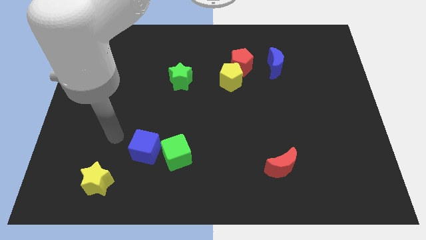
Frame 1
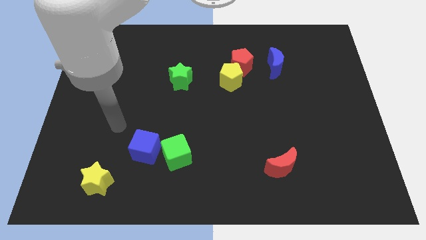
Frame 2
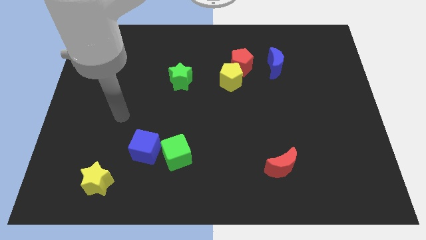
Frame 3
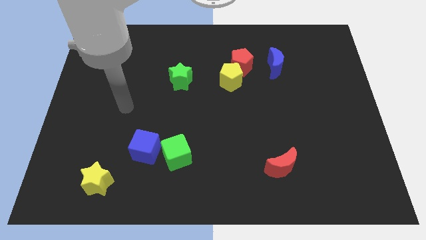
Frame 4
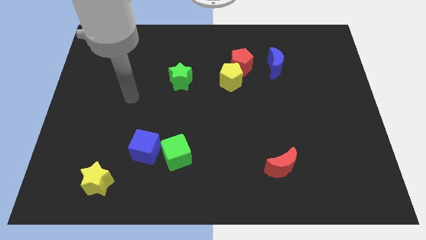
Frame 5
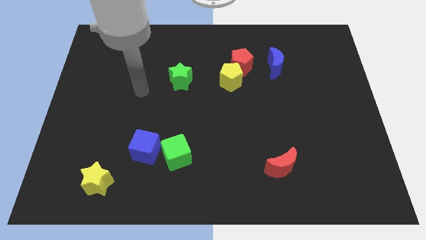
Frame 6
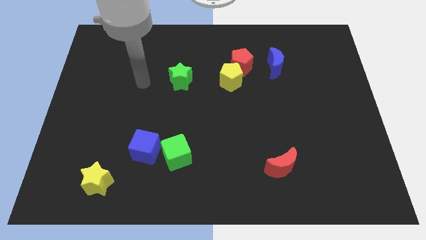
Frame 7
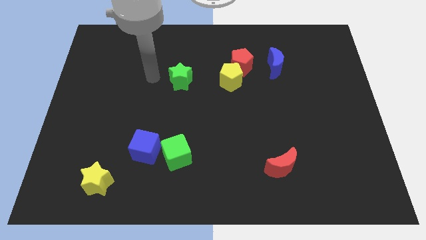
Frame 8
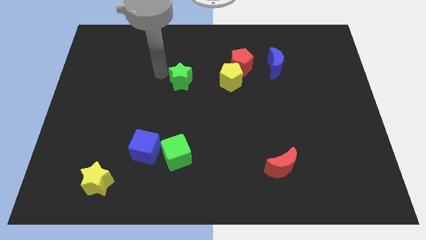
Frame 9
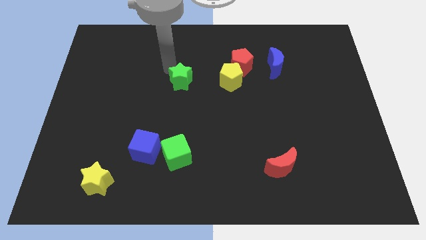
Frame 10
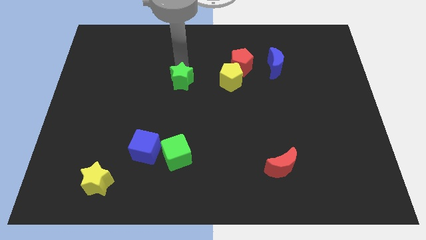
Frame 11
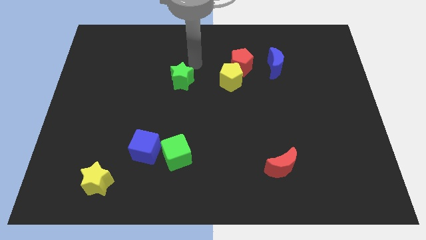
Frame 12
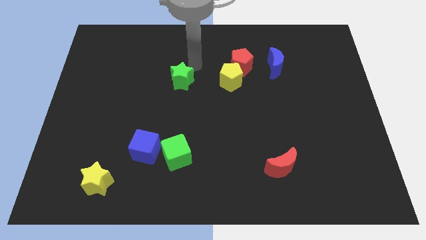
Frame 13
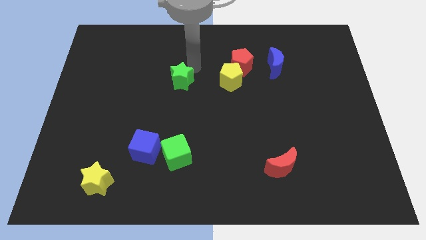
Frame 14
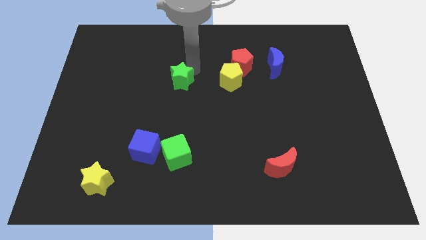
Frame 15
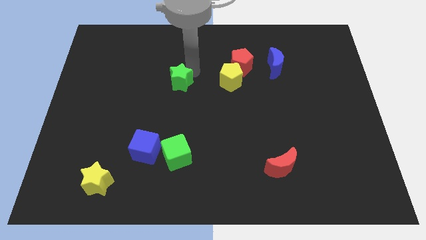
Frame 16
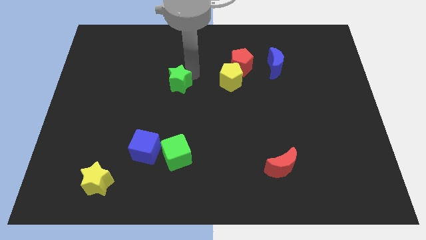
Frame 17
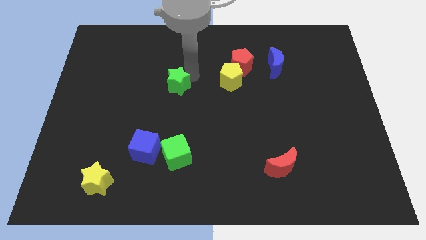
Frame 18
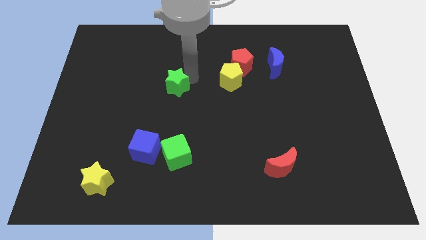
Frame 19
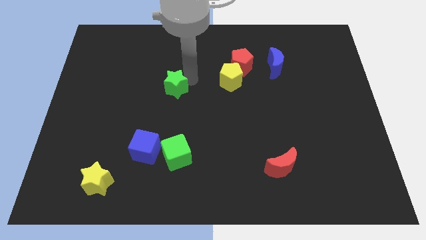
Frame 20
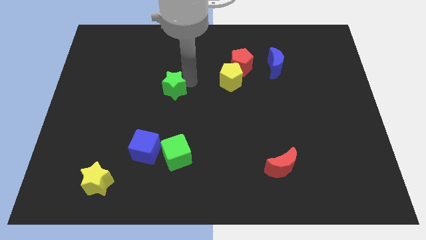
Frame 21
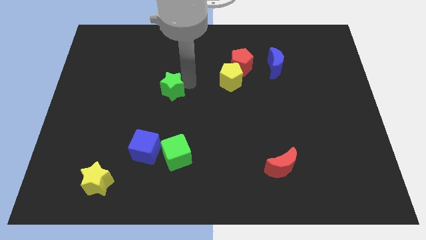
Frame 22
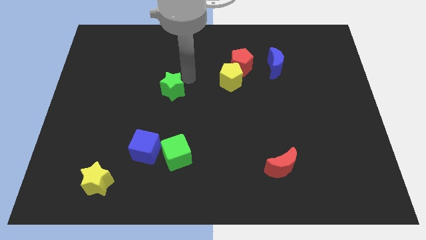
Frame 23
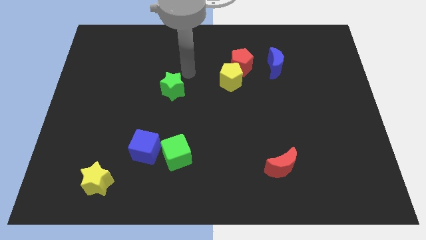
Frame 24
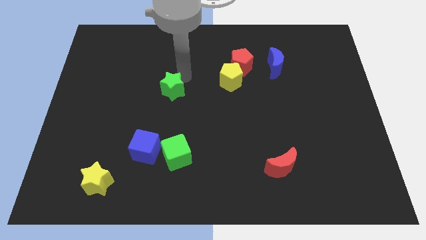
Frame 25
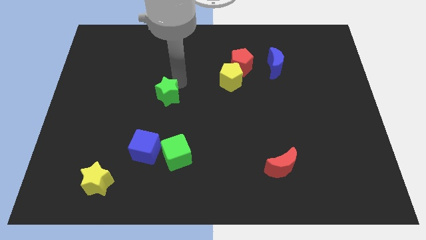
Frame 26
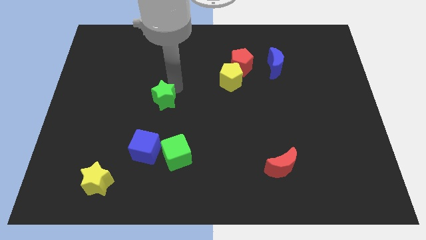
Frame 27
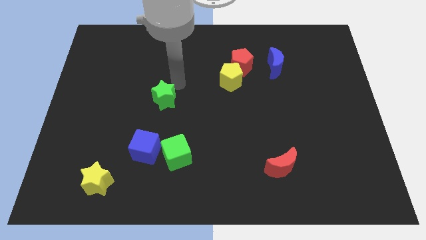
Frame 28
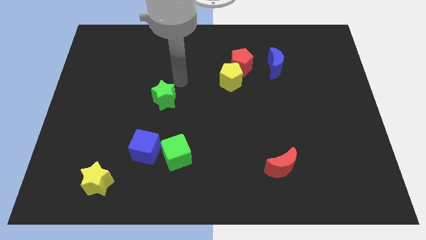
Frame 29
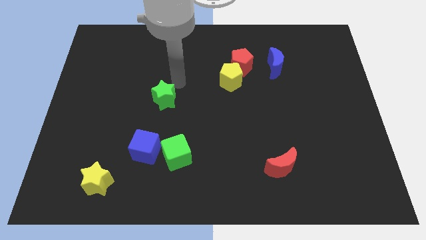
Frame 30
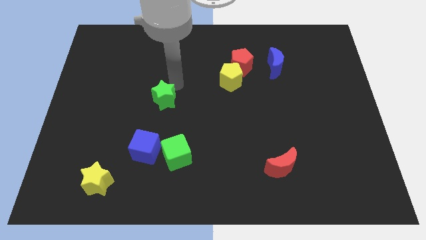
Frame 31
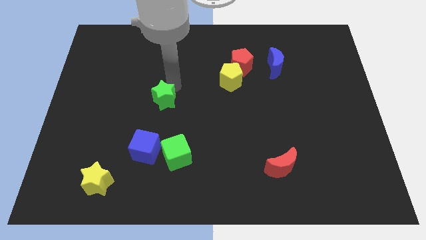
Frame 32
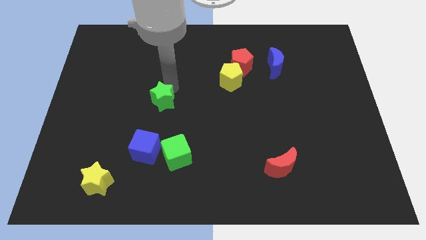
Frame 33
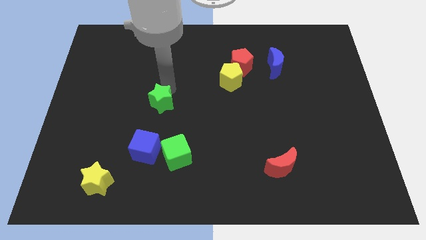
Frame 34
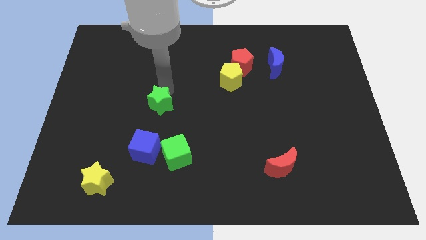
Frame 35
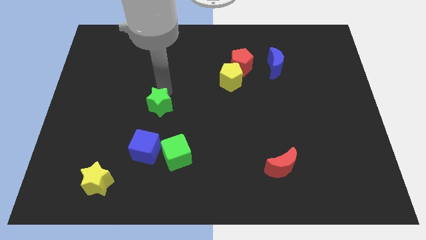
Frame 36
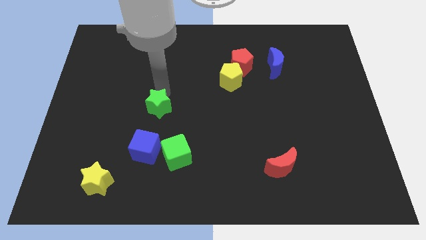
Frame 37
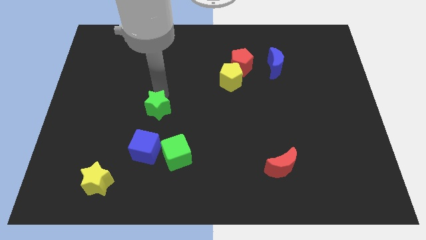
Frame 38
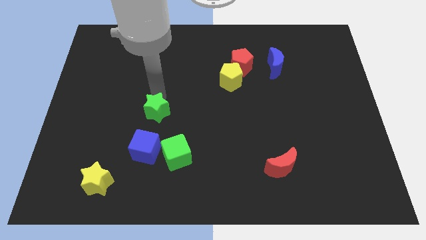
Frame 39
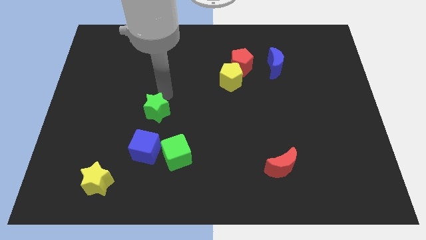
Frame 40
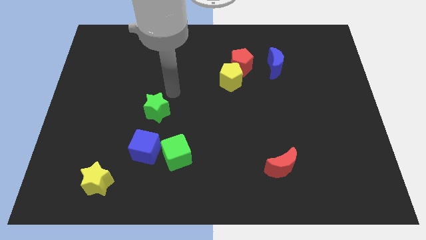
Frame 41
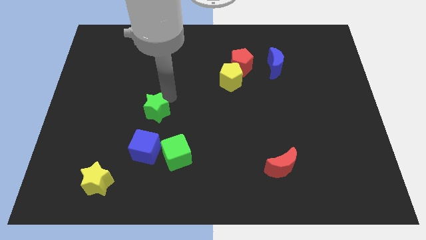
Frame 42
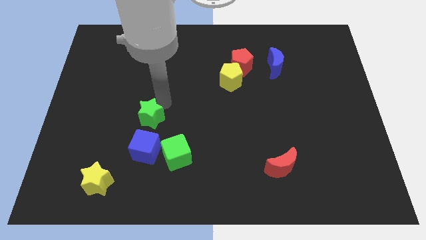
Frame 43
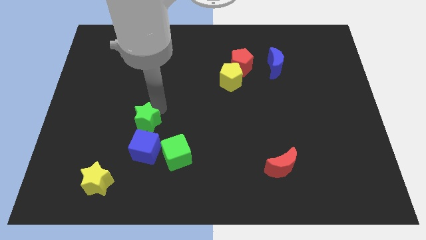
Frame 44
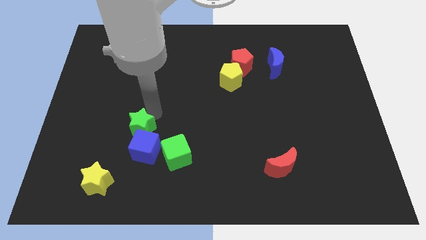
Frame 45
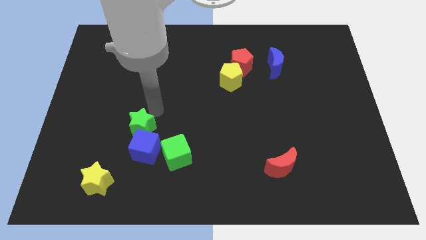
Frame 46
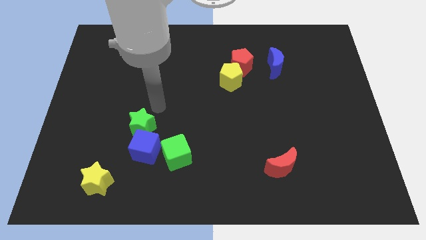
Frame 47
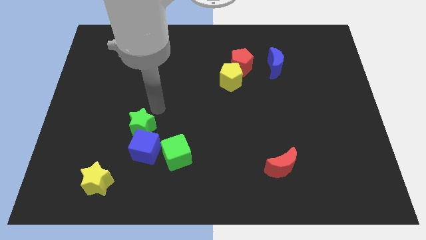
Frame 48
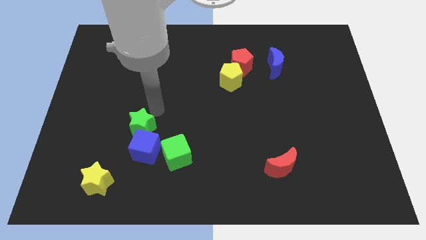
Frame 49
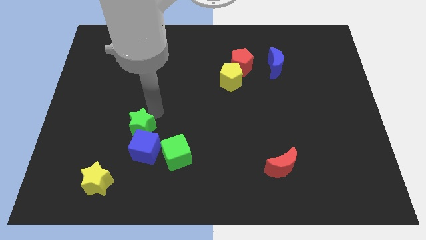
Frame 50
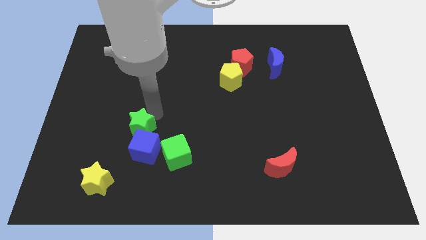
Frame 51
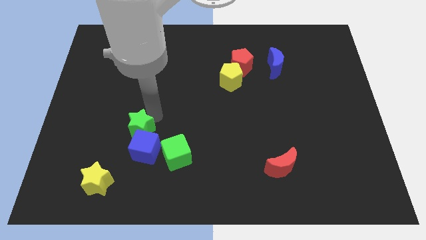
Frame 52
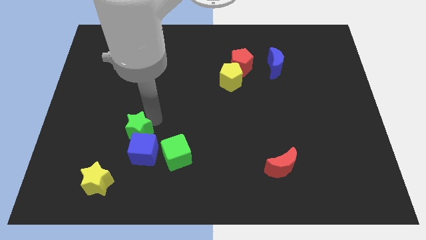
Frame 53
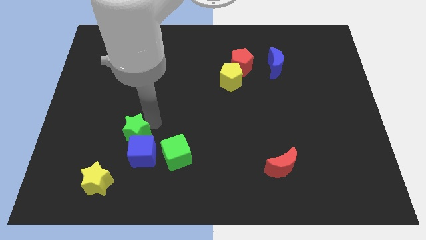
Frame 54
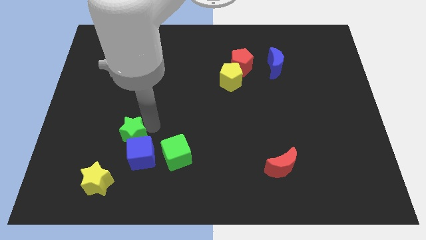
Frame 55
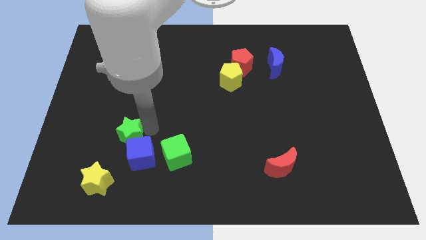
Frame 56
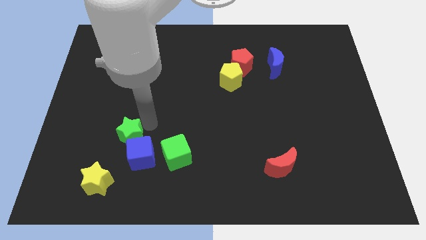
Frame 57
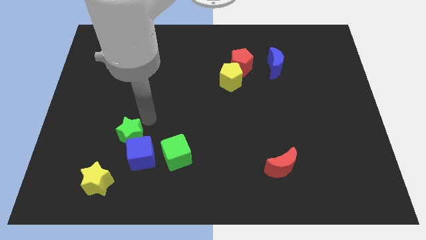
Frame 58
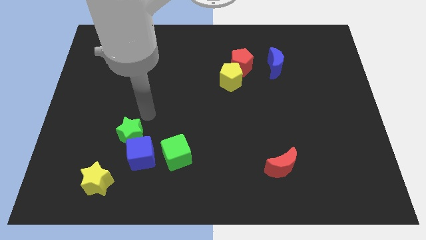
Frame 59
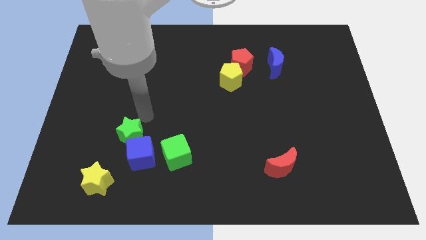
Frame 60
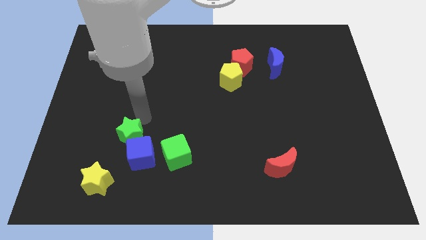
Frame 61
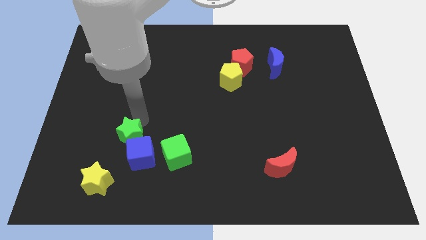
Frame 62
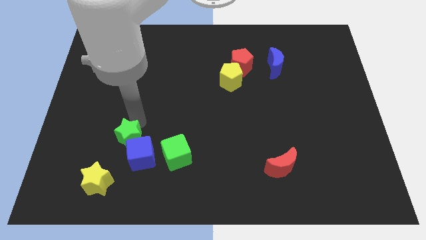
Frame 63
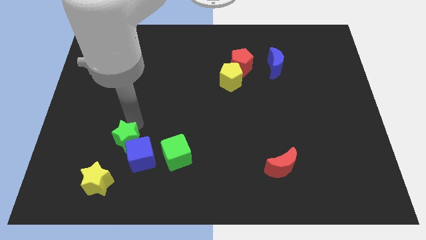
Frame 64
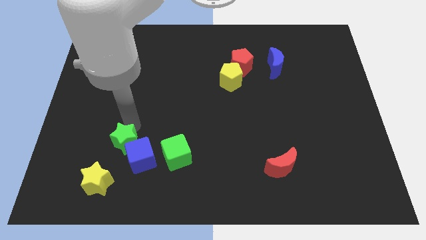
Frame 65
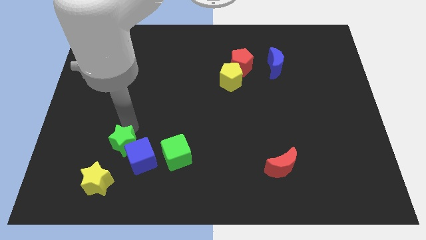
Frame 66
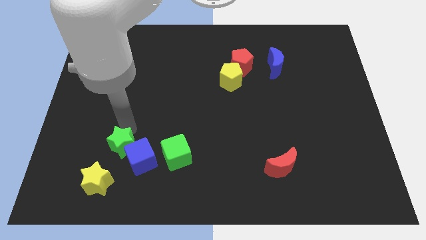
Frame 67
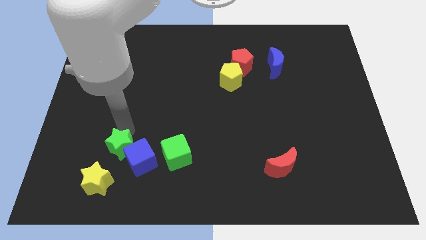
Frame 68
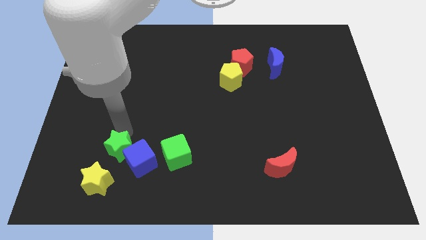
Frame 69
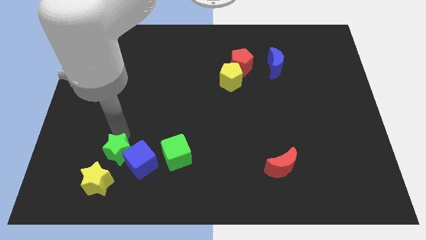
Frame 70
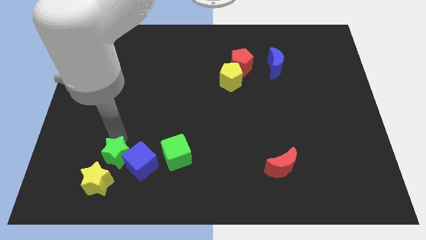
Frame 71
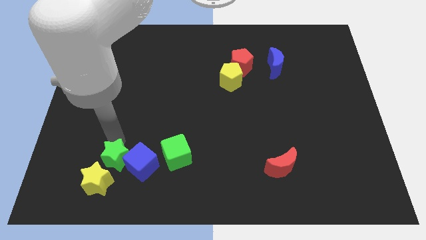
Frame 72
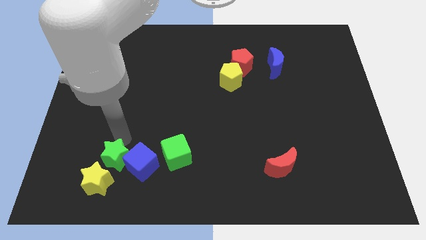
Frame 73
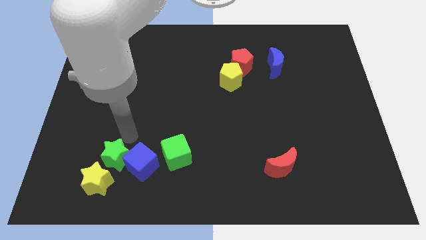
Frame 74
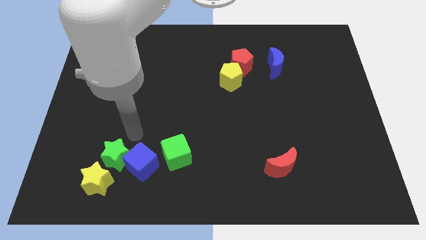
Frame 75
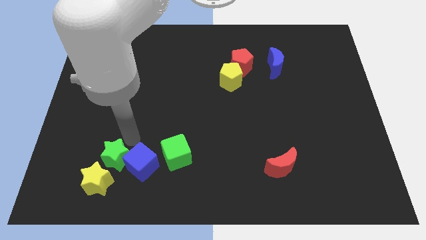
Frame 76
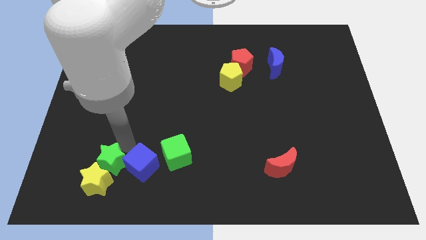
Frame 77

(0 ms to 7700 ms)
put the green star close to the yellow star
